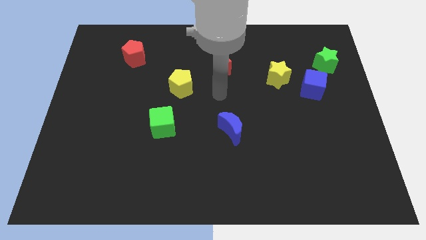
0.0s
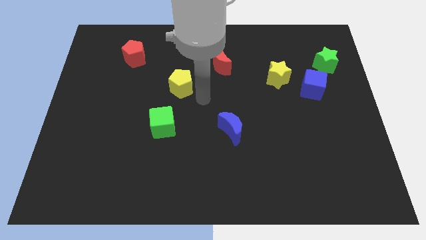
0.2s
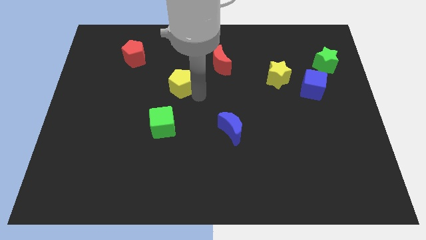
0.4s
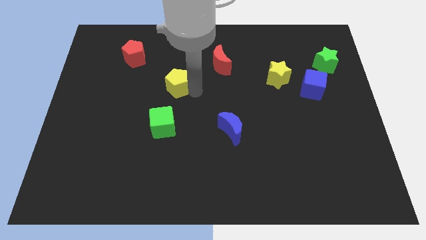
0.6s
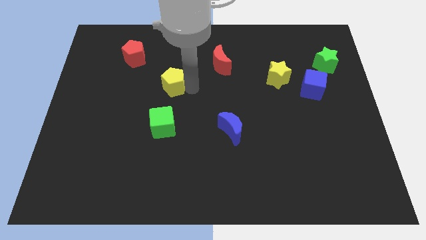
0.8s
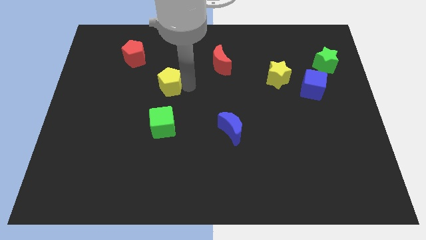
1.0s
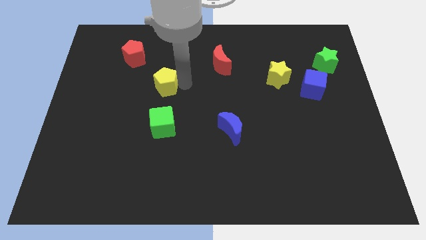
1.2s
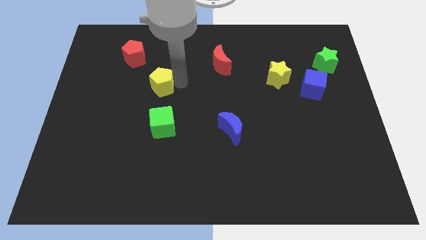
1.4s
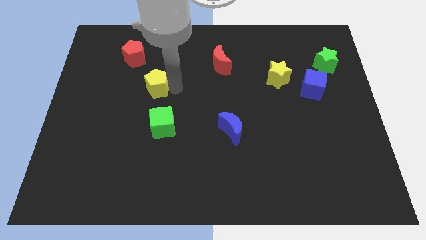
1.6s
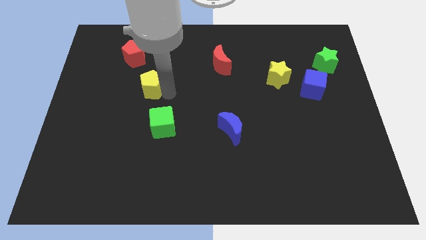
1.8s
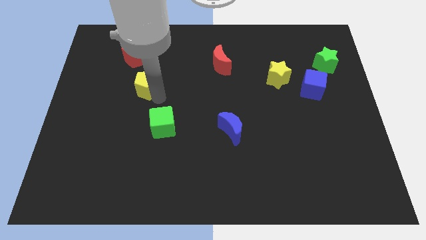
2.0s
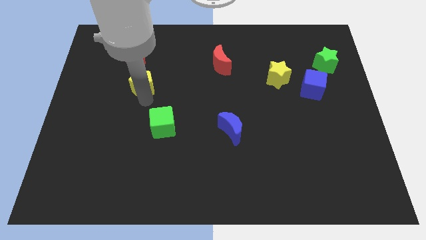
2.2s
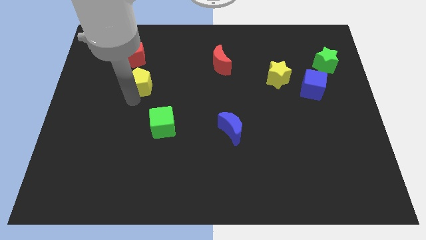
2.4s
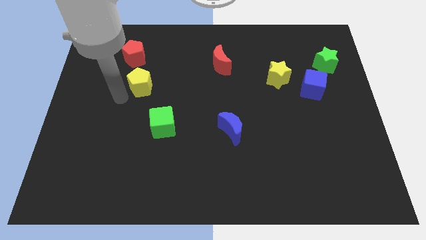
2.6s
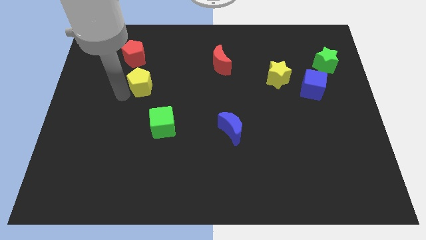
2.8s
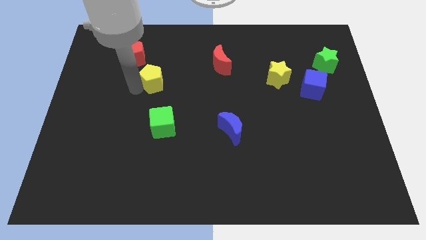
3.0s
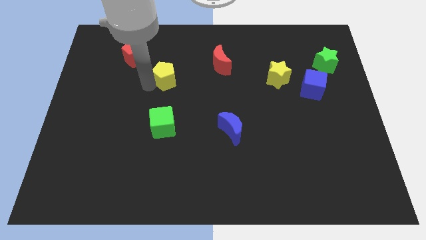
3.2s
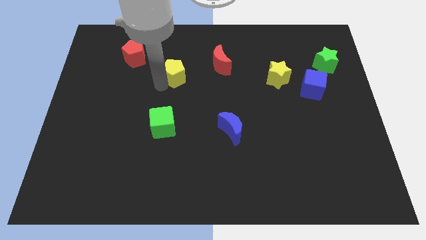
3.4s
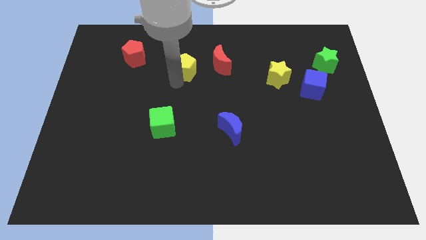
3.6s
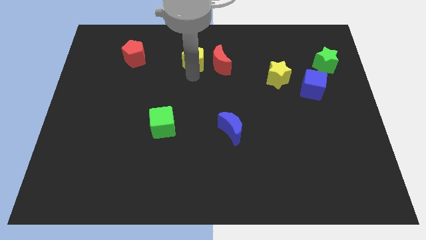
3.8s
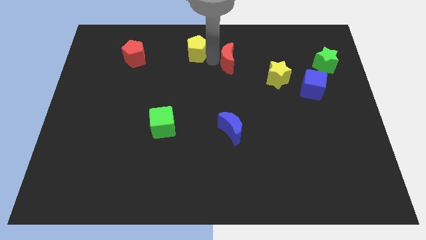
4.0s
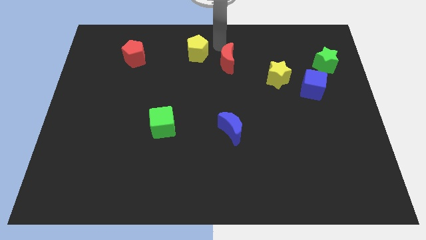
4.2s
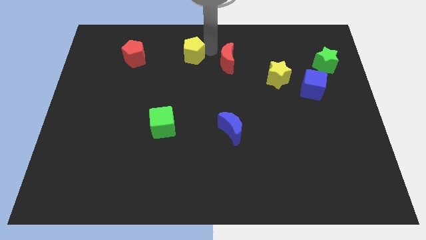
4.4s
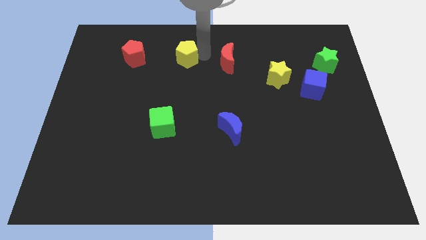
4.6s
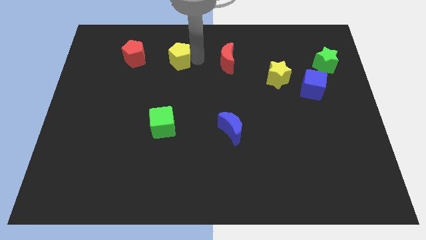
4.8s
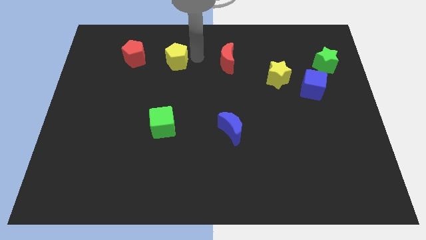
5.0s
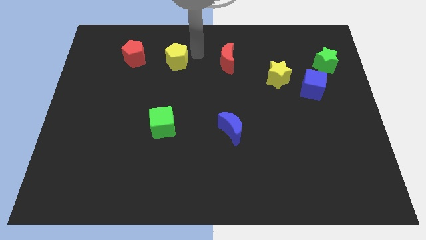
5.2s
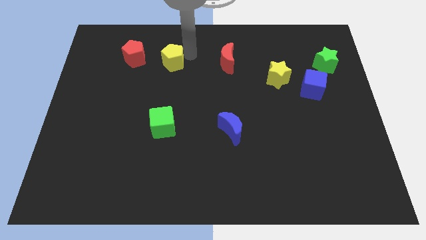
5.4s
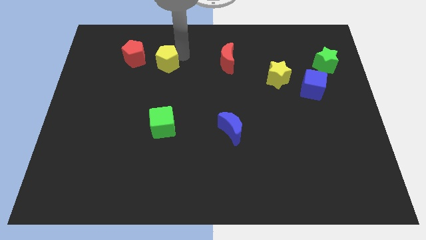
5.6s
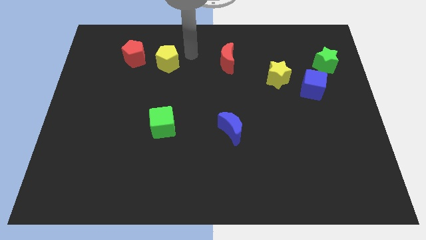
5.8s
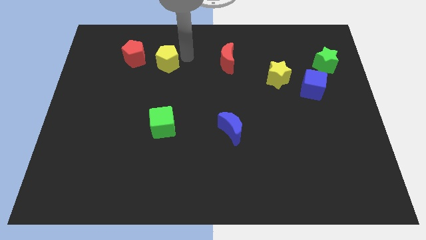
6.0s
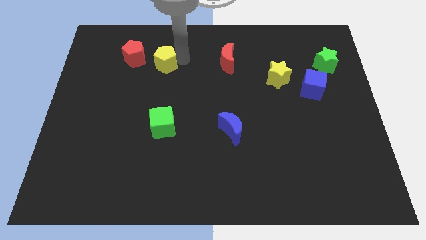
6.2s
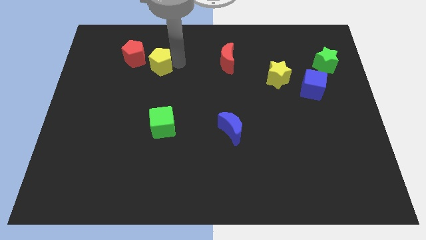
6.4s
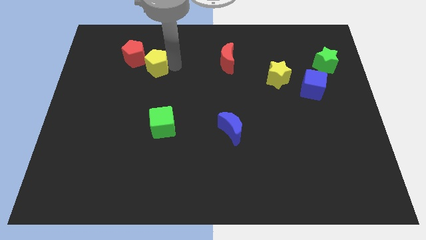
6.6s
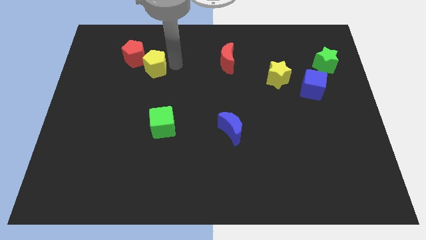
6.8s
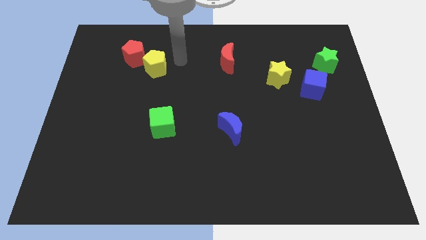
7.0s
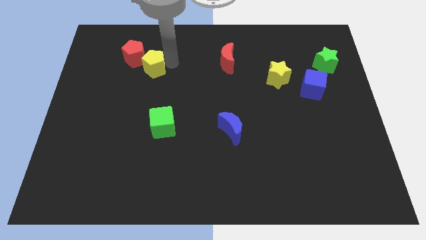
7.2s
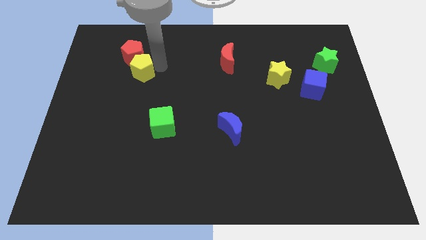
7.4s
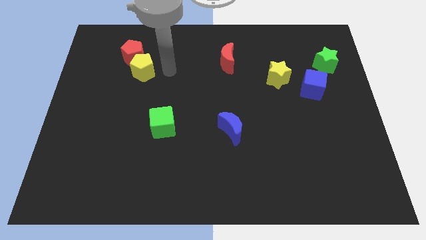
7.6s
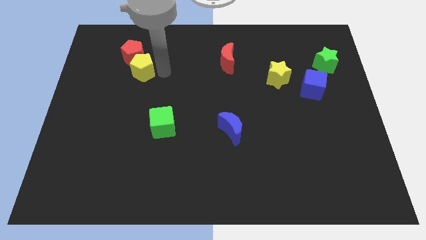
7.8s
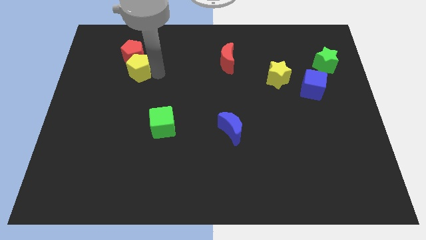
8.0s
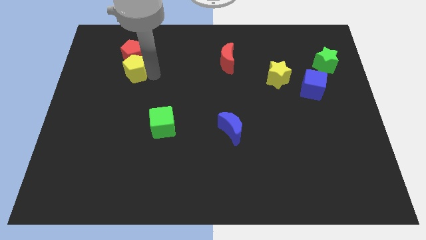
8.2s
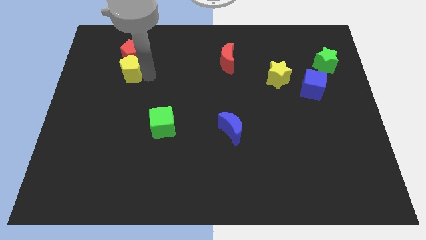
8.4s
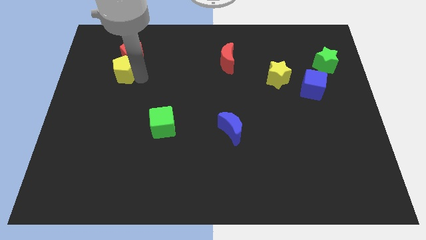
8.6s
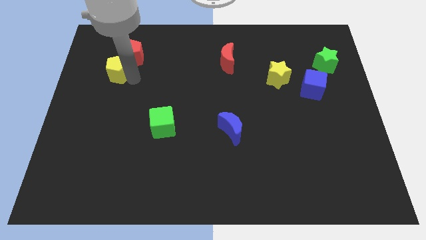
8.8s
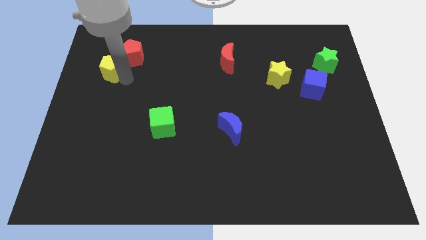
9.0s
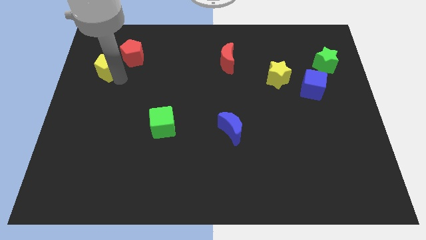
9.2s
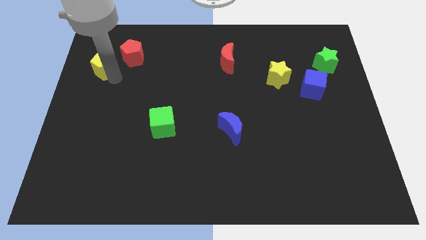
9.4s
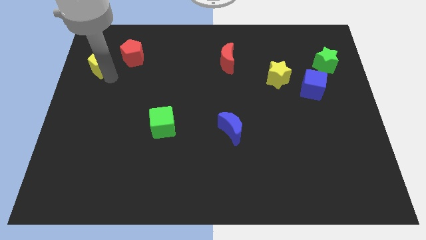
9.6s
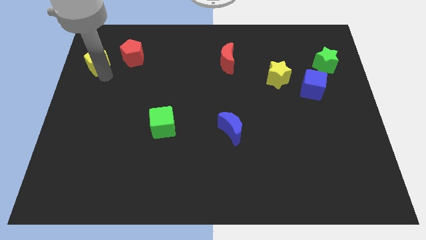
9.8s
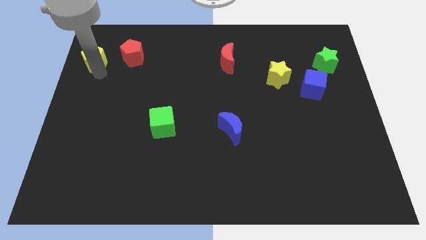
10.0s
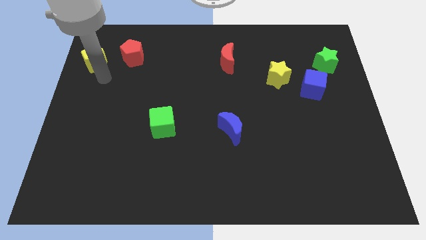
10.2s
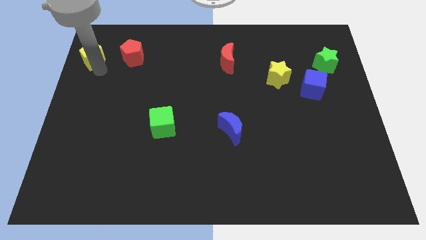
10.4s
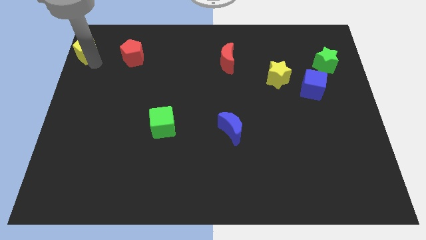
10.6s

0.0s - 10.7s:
push the yellow pentagon to the upper left corner

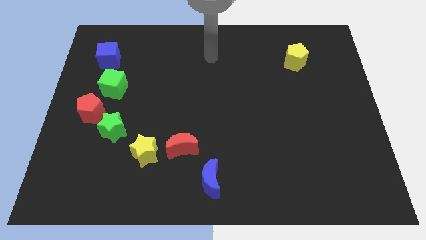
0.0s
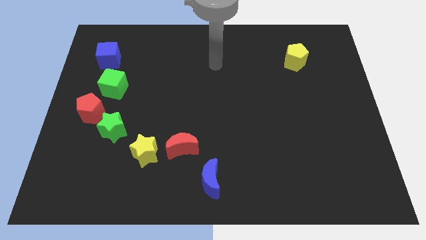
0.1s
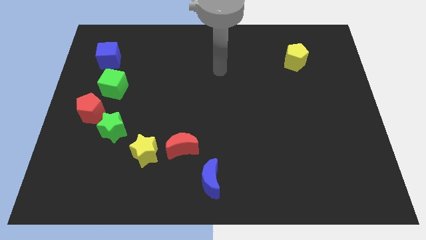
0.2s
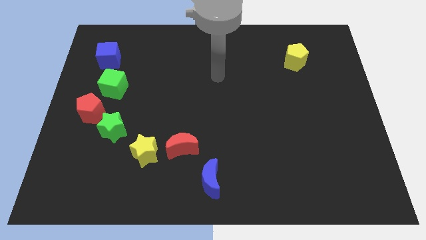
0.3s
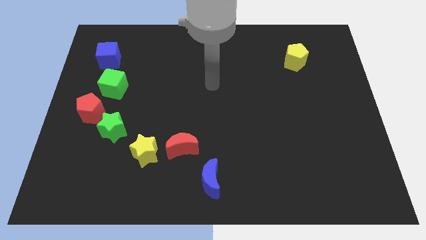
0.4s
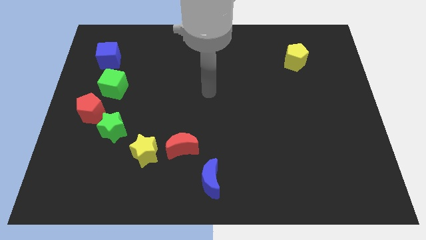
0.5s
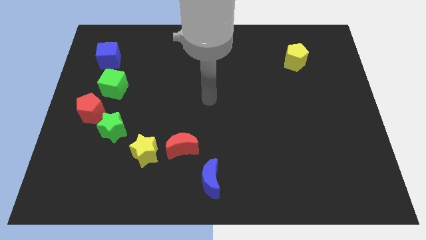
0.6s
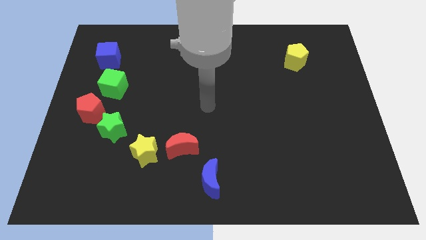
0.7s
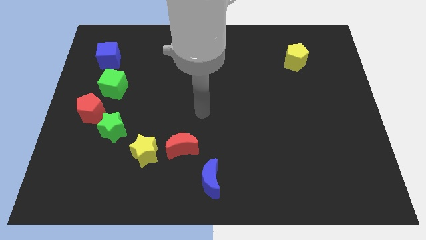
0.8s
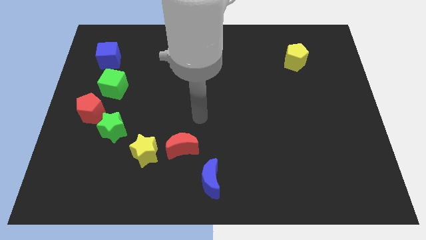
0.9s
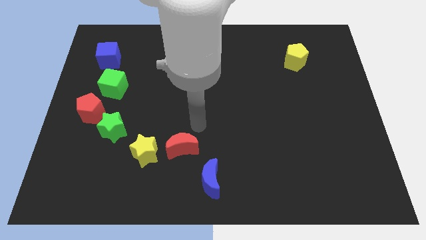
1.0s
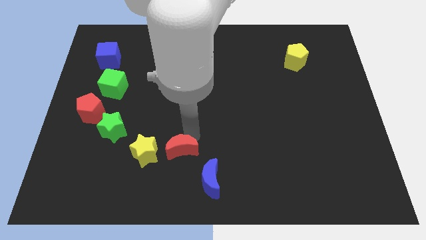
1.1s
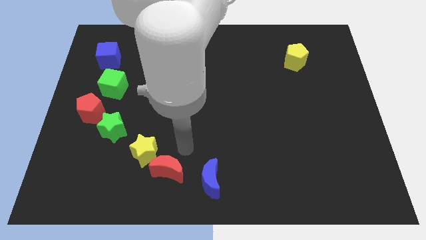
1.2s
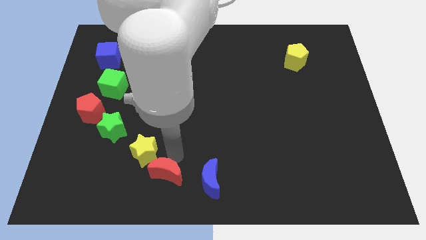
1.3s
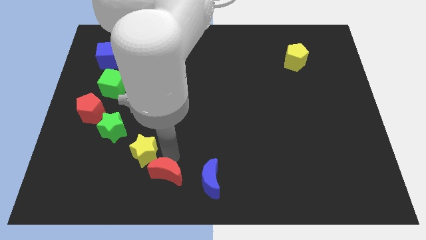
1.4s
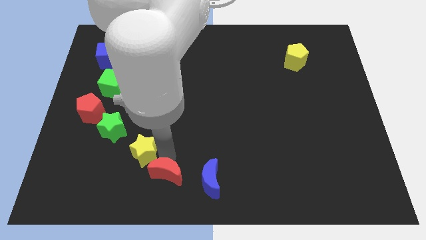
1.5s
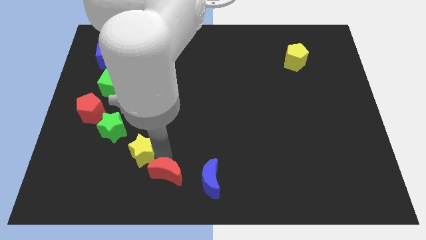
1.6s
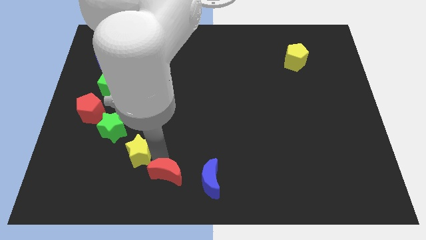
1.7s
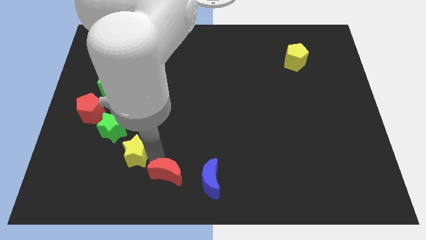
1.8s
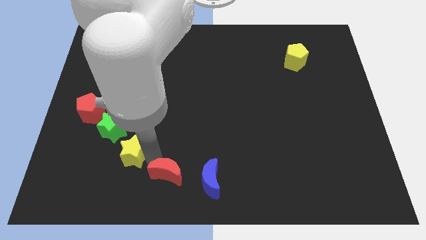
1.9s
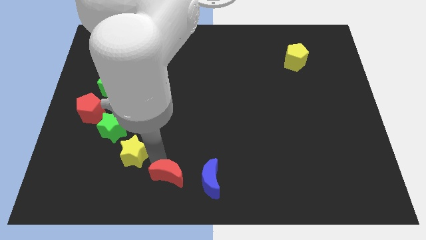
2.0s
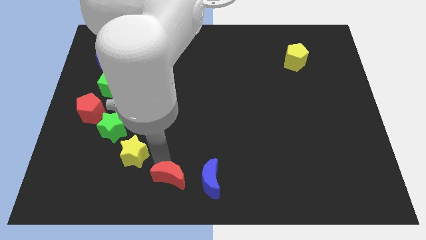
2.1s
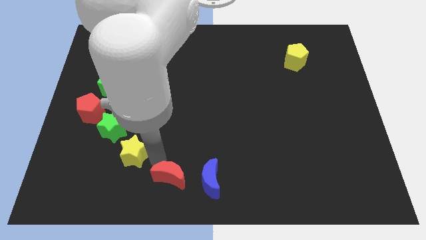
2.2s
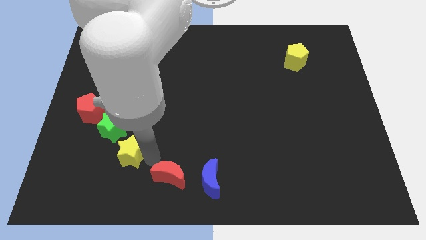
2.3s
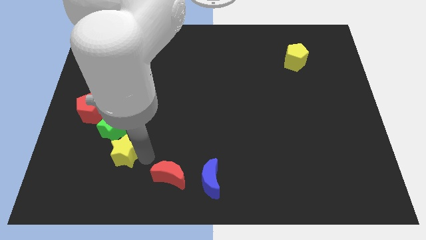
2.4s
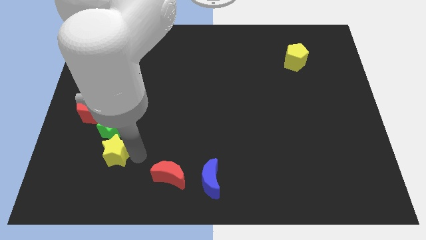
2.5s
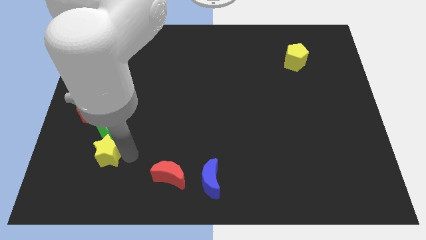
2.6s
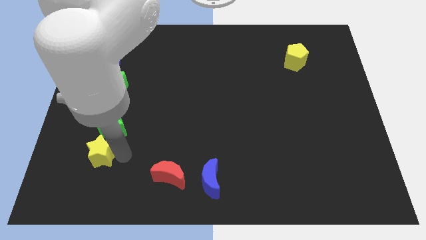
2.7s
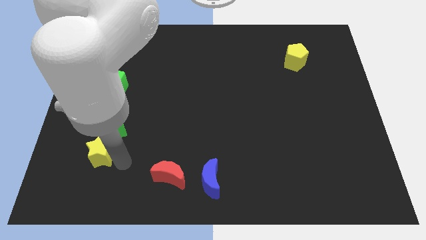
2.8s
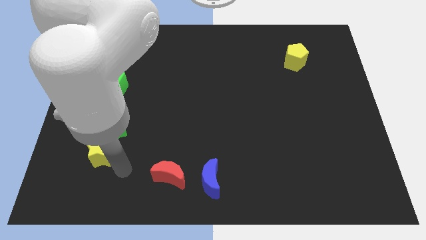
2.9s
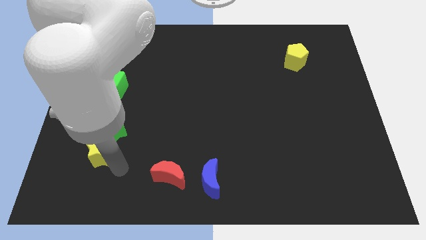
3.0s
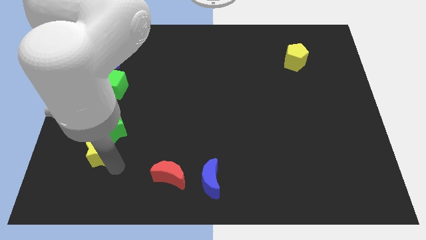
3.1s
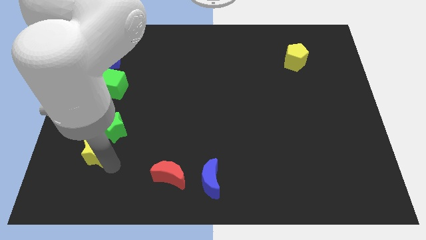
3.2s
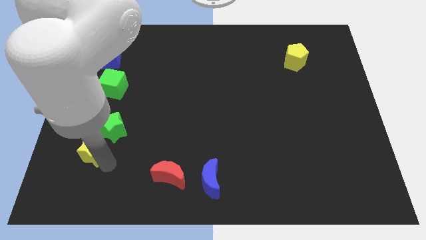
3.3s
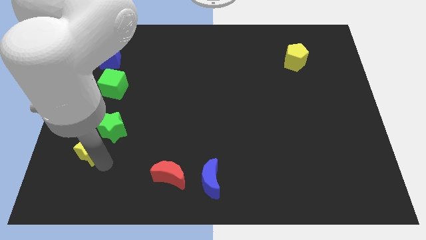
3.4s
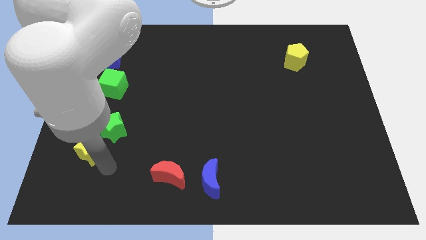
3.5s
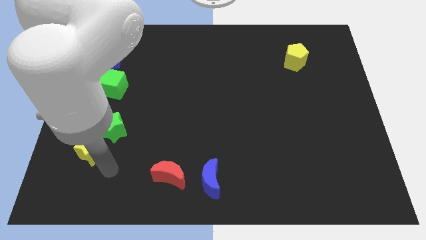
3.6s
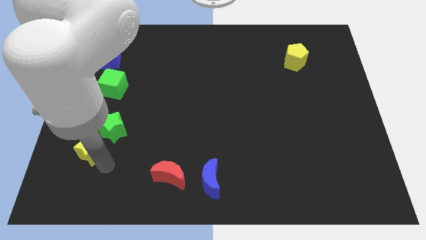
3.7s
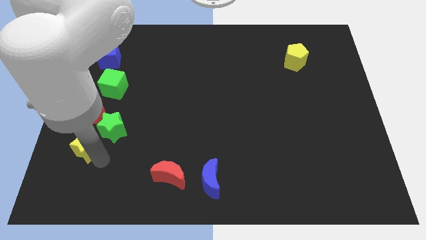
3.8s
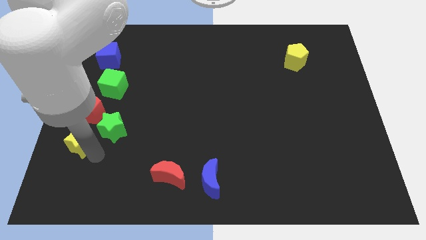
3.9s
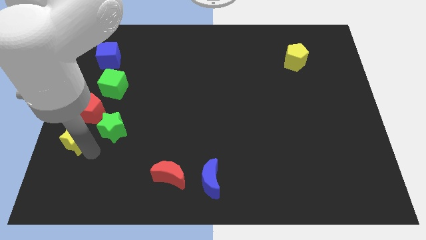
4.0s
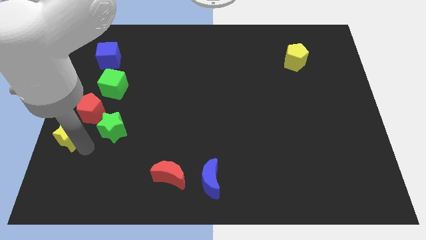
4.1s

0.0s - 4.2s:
slide the yellow star to the left side
